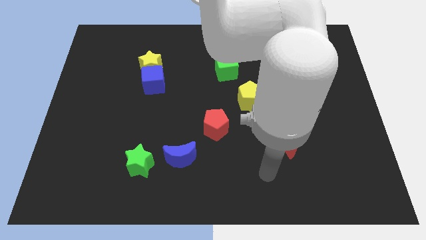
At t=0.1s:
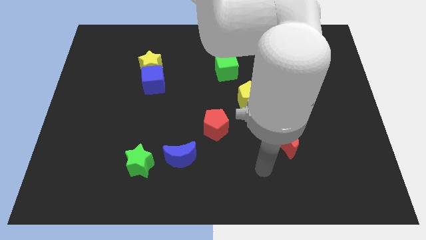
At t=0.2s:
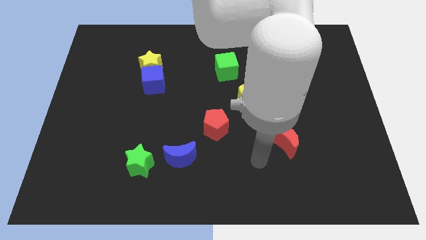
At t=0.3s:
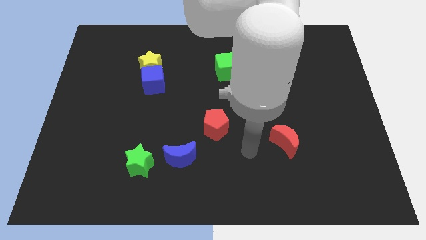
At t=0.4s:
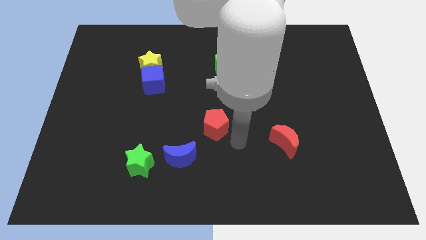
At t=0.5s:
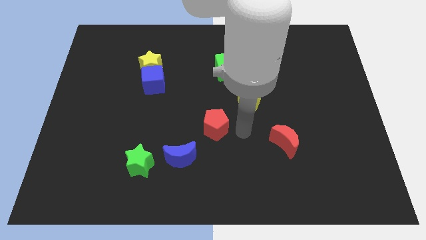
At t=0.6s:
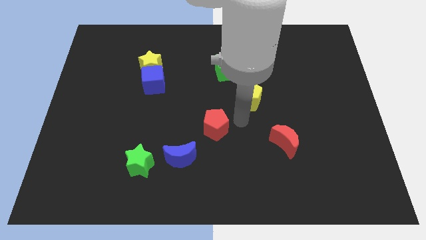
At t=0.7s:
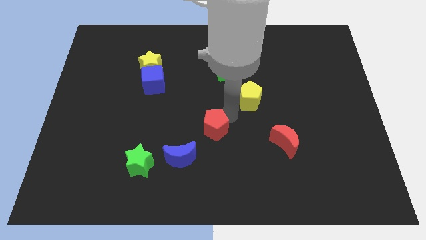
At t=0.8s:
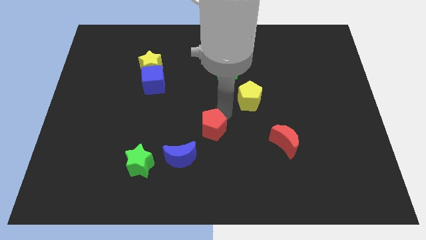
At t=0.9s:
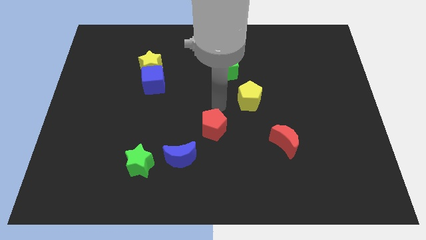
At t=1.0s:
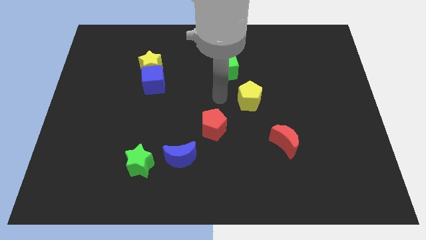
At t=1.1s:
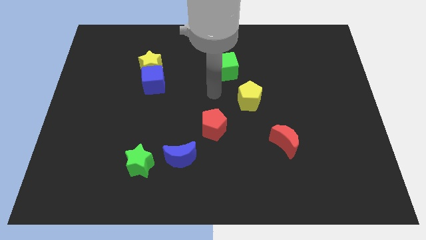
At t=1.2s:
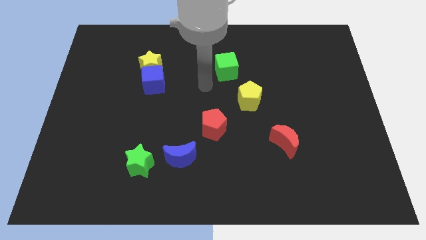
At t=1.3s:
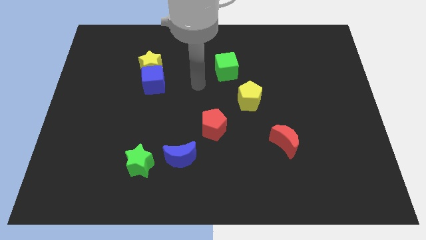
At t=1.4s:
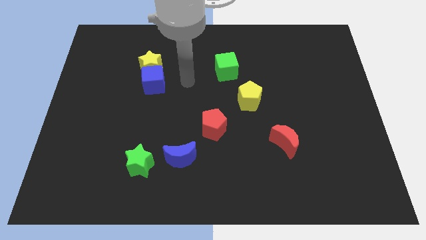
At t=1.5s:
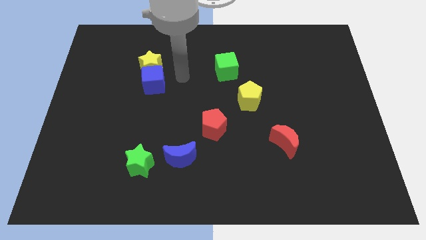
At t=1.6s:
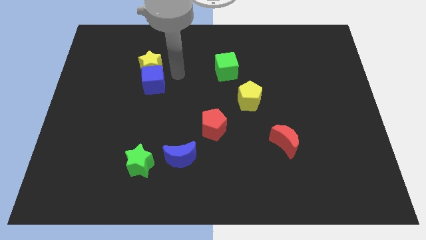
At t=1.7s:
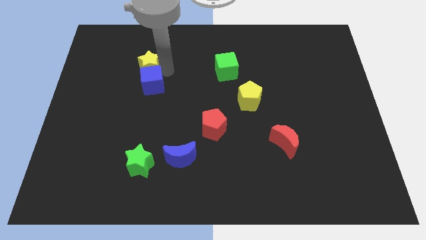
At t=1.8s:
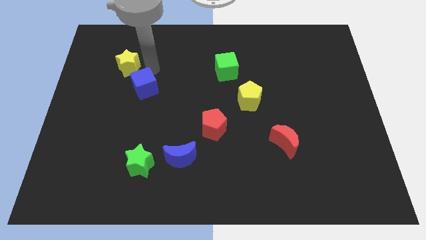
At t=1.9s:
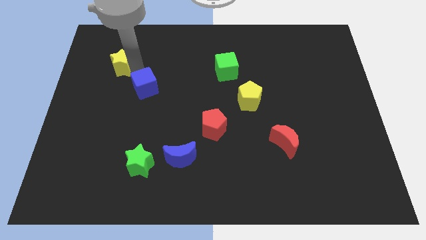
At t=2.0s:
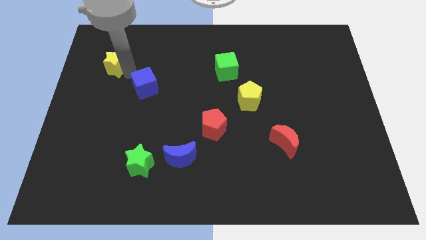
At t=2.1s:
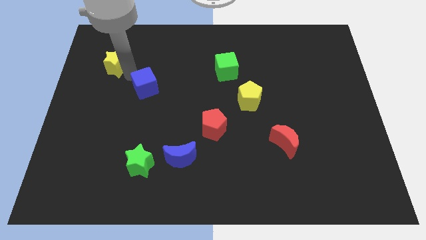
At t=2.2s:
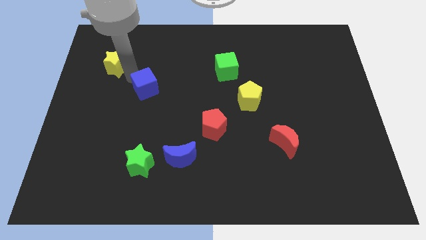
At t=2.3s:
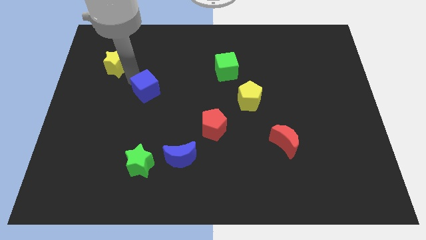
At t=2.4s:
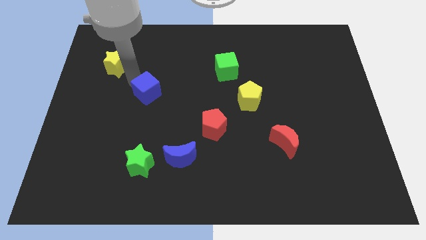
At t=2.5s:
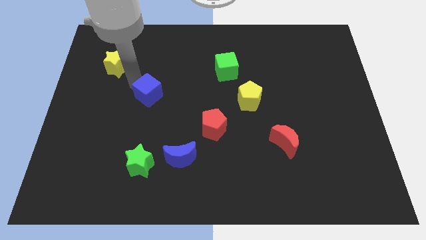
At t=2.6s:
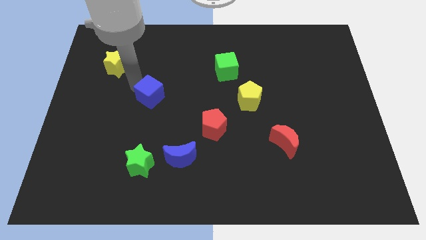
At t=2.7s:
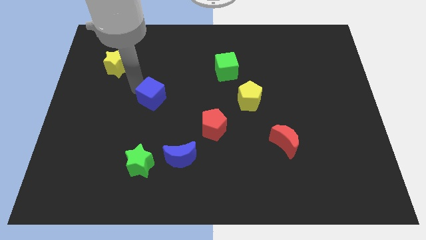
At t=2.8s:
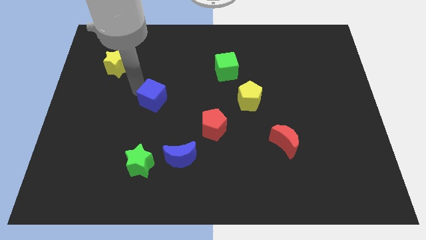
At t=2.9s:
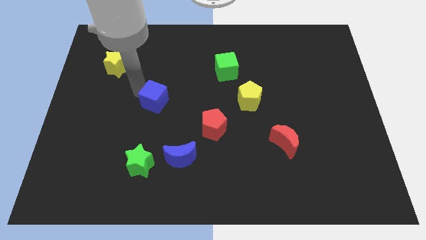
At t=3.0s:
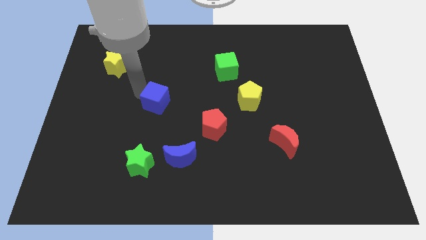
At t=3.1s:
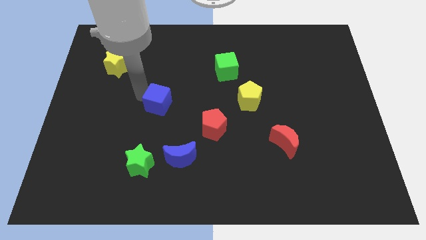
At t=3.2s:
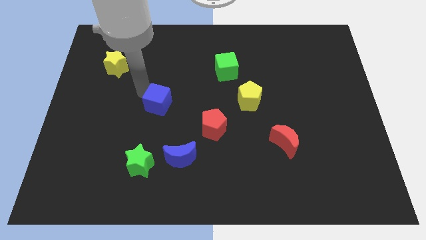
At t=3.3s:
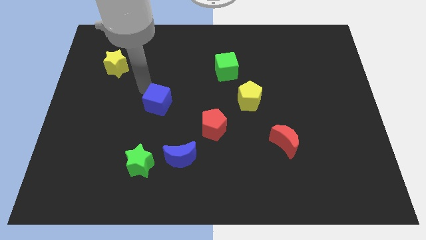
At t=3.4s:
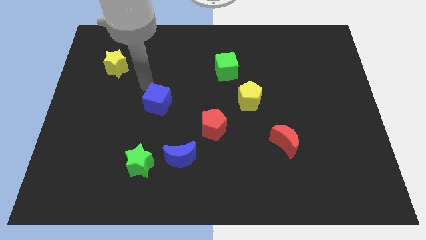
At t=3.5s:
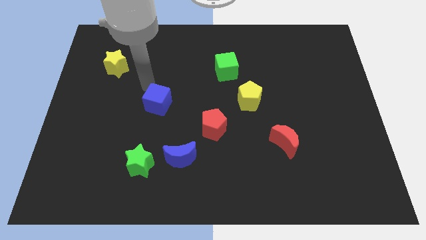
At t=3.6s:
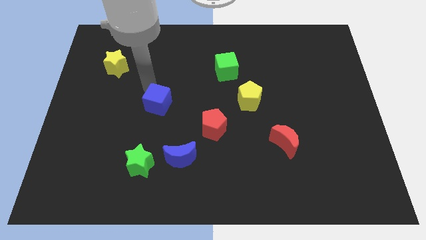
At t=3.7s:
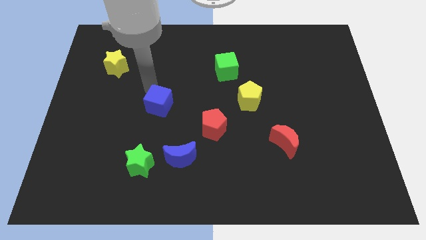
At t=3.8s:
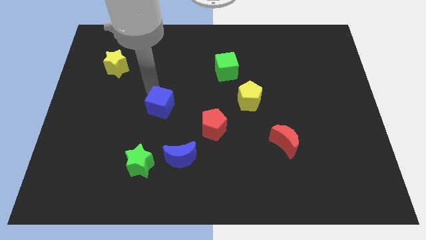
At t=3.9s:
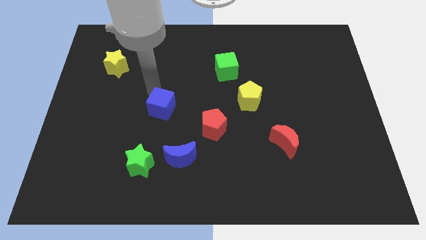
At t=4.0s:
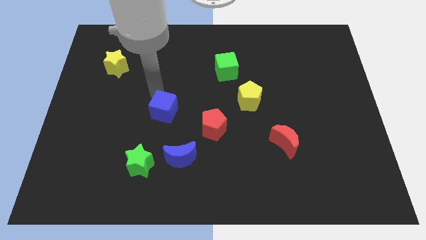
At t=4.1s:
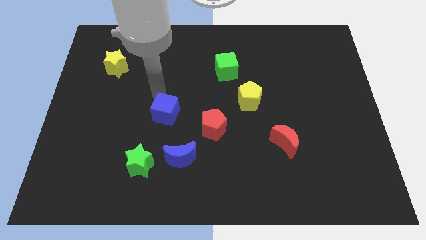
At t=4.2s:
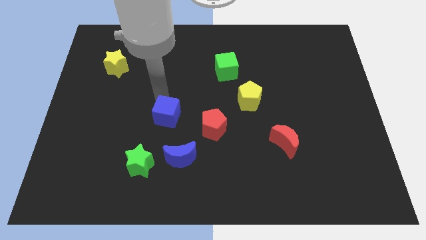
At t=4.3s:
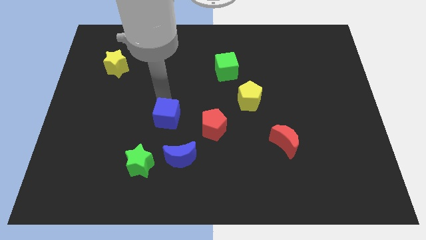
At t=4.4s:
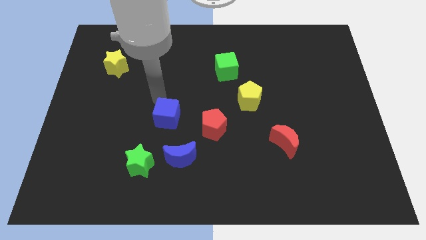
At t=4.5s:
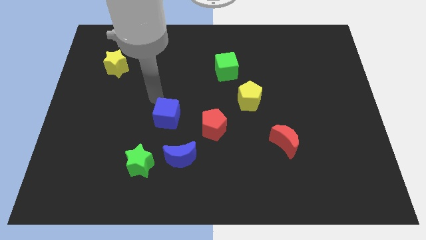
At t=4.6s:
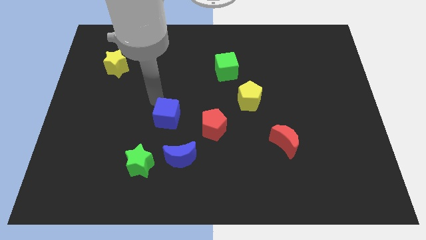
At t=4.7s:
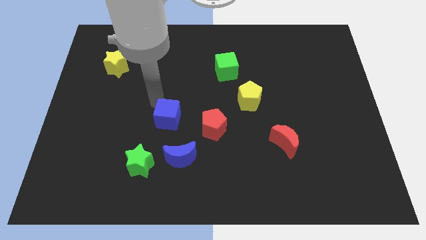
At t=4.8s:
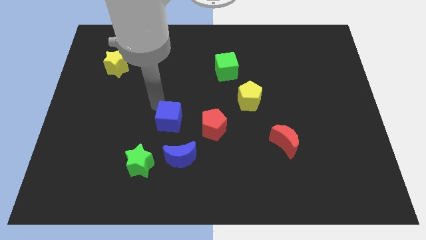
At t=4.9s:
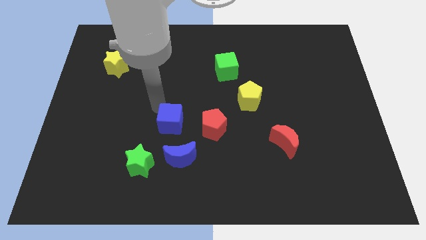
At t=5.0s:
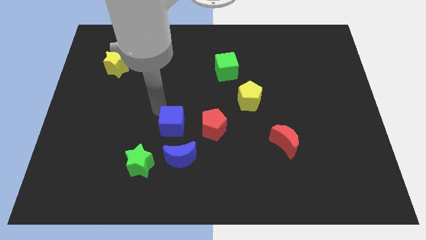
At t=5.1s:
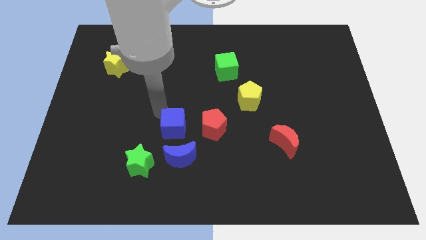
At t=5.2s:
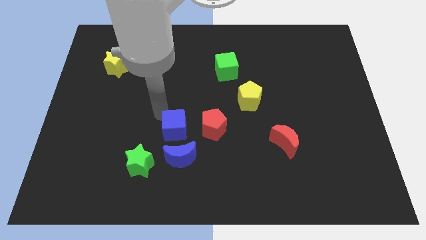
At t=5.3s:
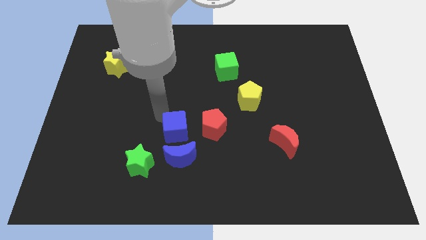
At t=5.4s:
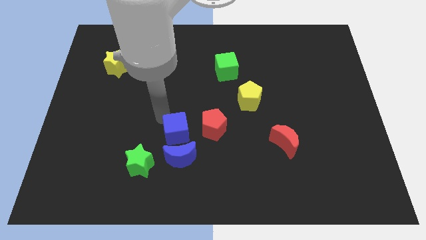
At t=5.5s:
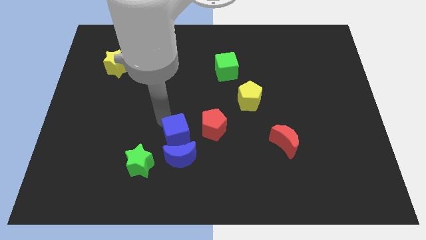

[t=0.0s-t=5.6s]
move the blue cube close to the blue moon

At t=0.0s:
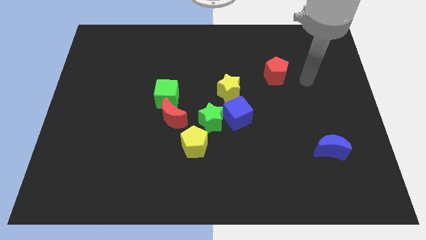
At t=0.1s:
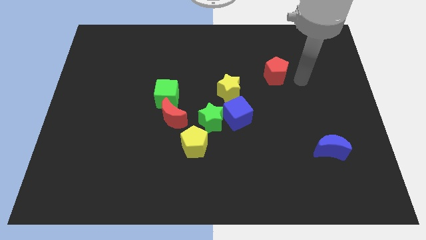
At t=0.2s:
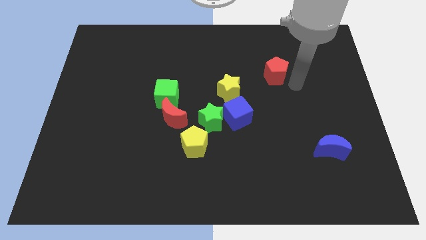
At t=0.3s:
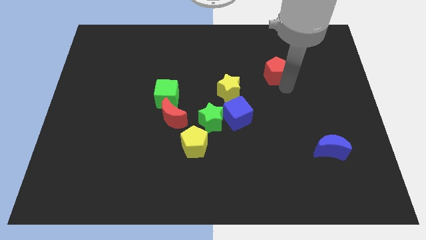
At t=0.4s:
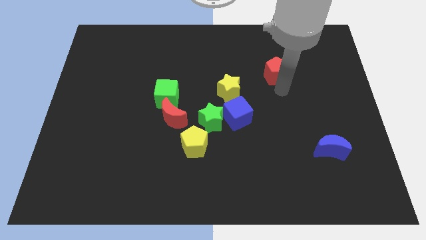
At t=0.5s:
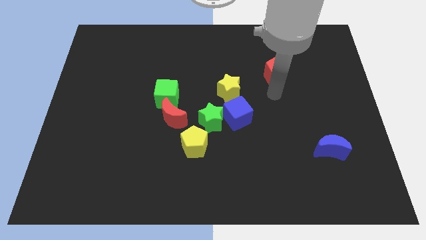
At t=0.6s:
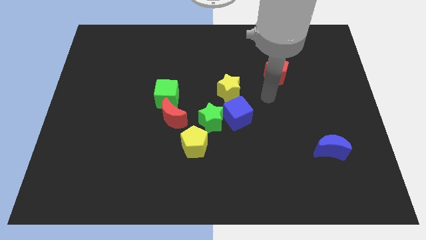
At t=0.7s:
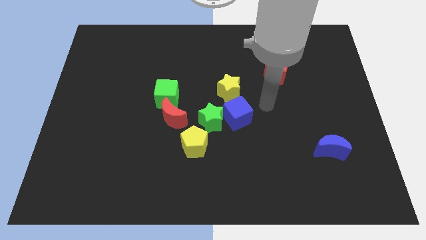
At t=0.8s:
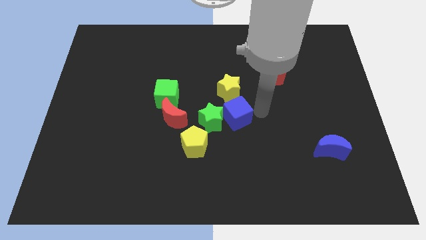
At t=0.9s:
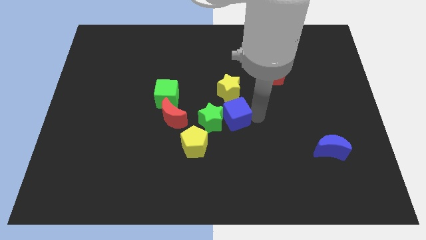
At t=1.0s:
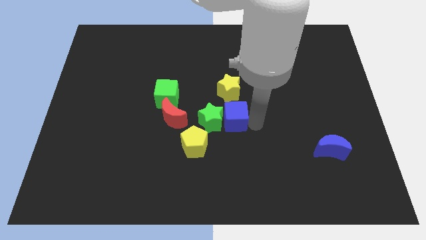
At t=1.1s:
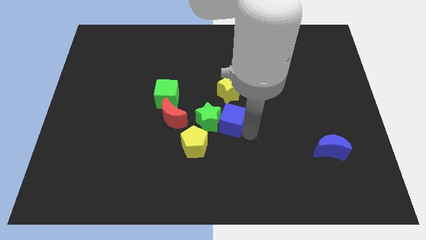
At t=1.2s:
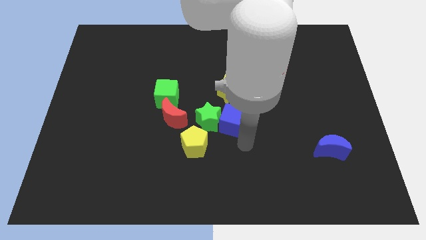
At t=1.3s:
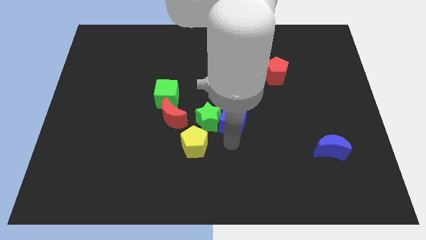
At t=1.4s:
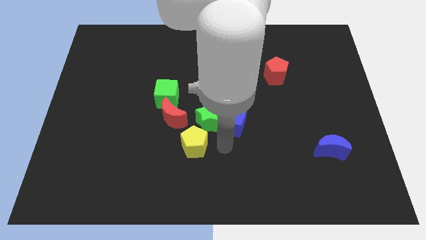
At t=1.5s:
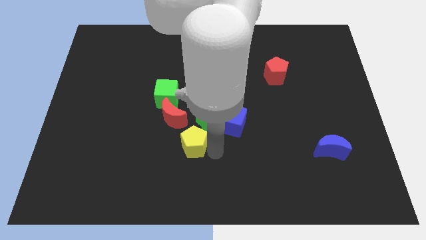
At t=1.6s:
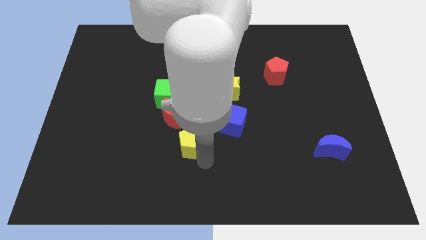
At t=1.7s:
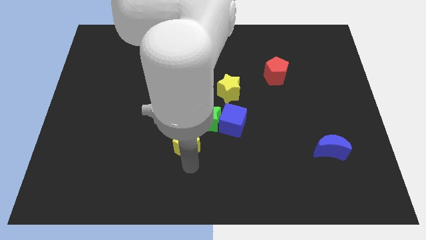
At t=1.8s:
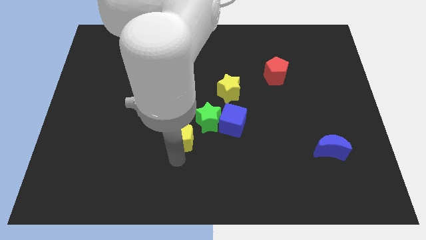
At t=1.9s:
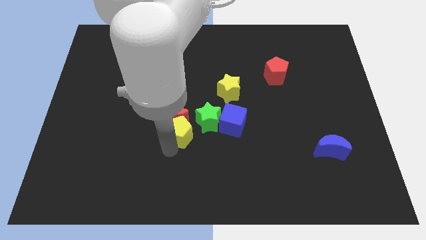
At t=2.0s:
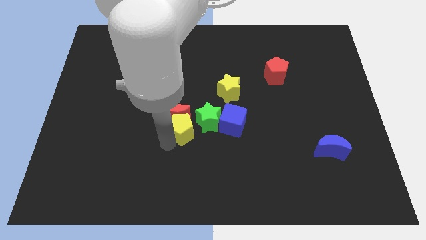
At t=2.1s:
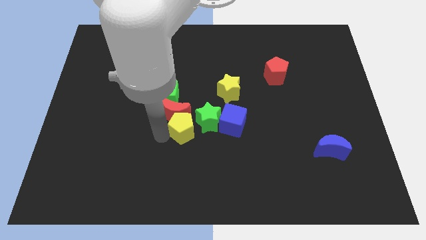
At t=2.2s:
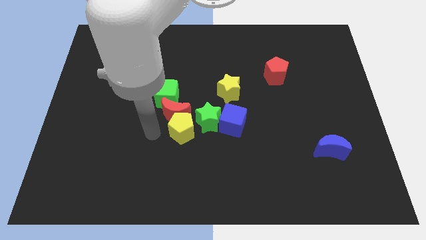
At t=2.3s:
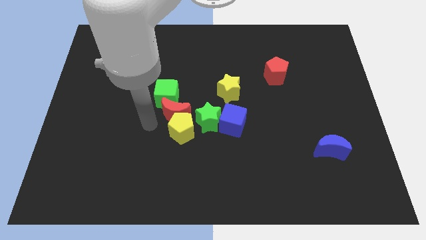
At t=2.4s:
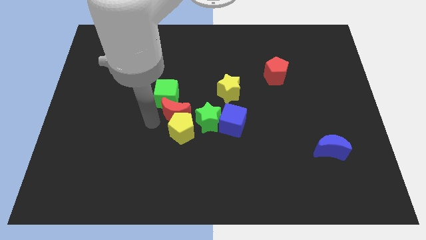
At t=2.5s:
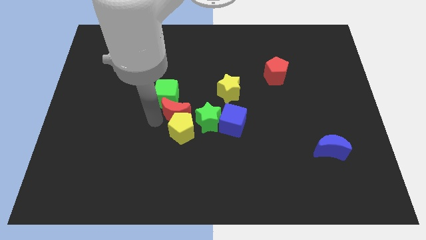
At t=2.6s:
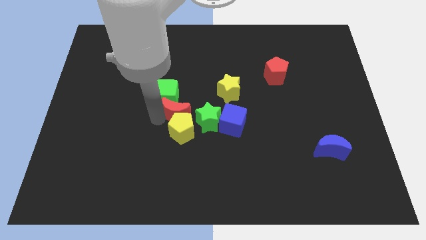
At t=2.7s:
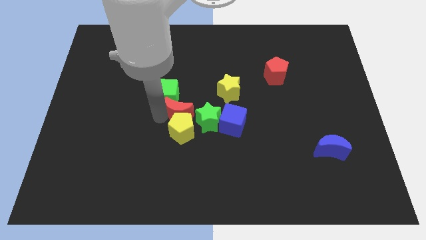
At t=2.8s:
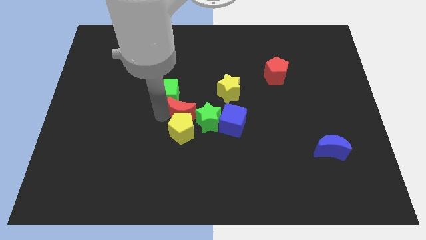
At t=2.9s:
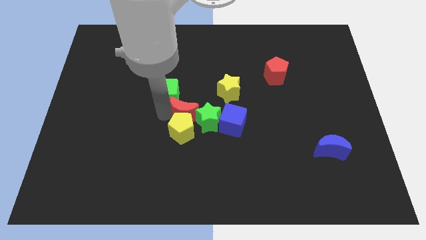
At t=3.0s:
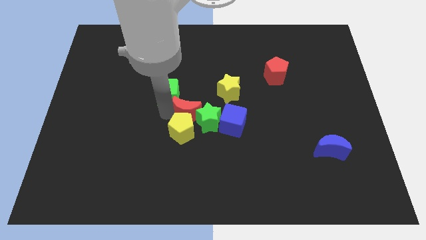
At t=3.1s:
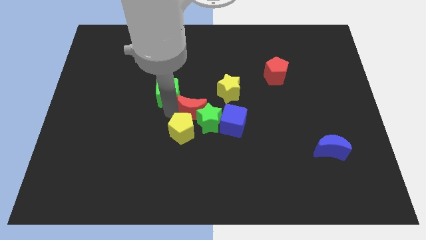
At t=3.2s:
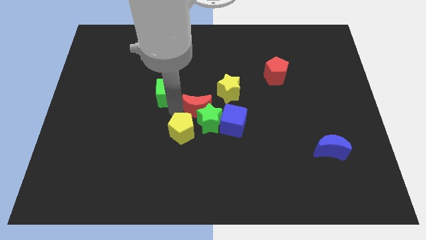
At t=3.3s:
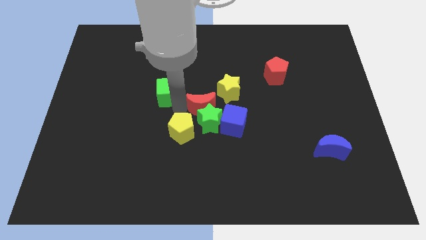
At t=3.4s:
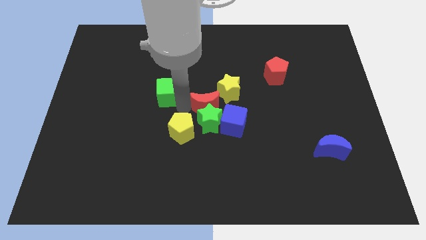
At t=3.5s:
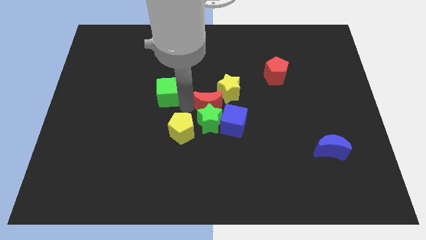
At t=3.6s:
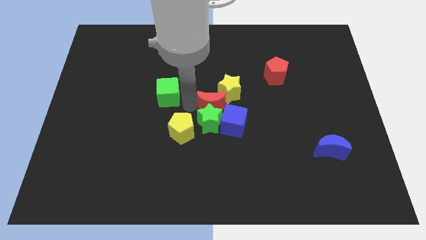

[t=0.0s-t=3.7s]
move the red moon towards the yellow star
